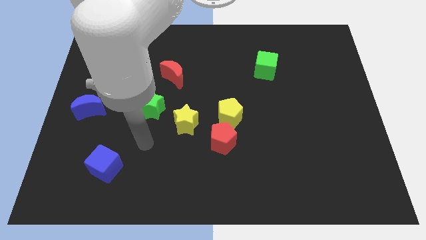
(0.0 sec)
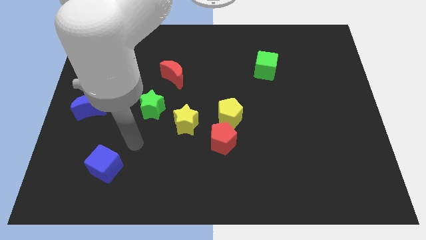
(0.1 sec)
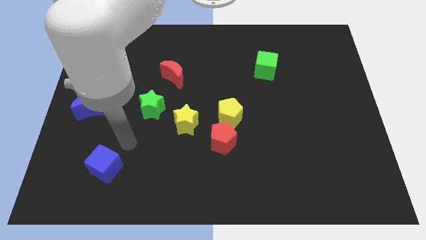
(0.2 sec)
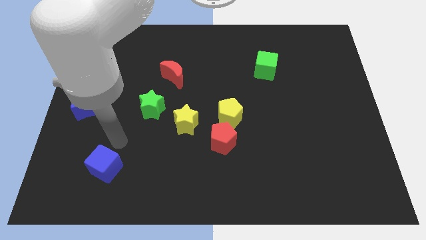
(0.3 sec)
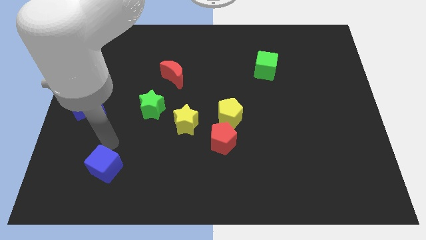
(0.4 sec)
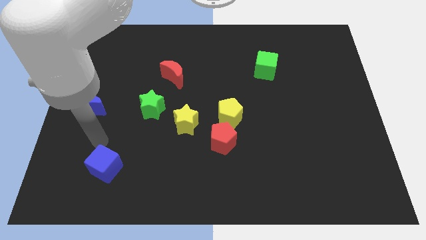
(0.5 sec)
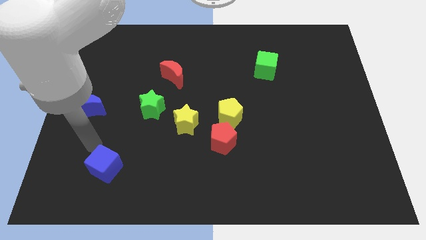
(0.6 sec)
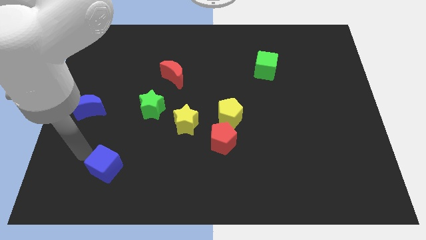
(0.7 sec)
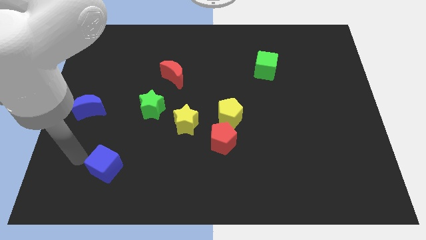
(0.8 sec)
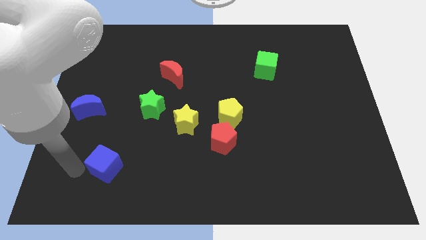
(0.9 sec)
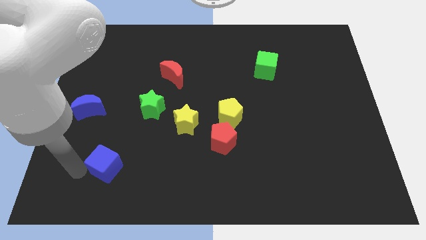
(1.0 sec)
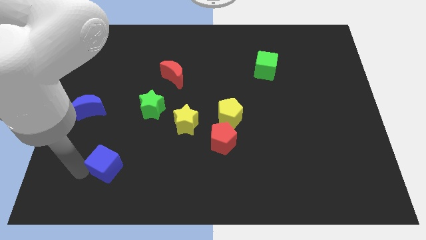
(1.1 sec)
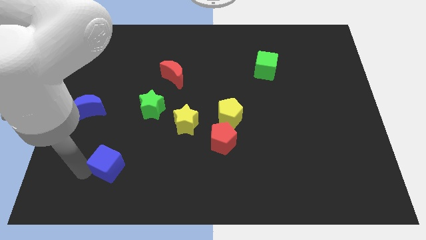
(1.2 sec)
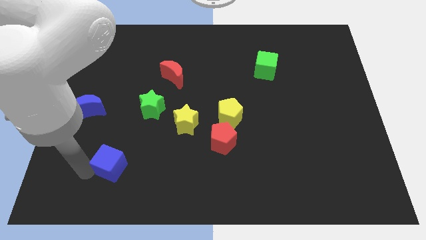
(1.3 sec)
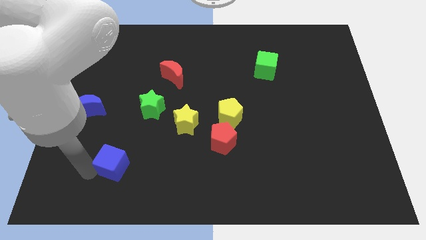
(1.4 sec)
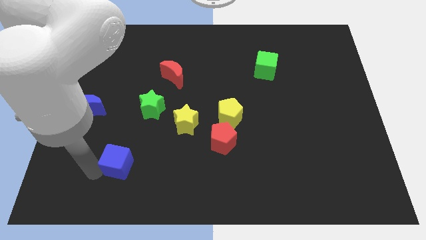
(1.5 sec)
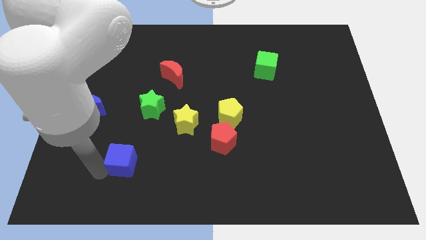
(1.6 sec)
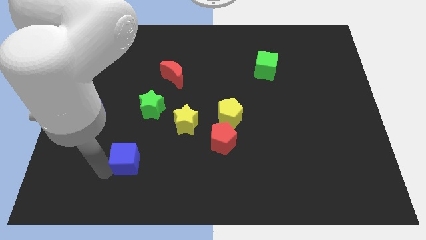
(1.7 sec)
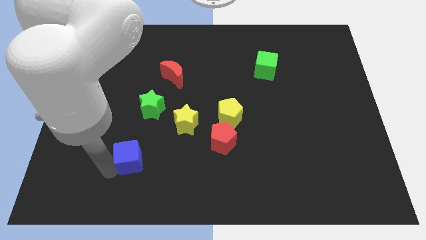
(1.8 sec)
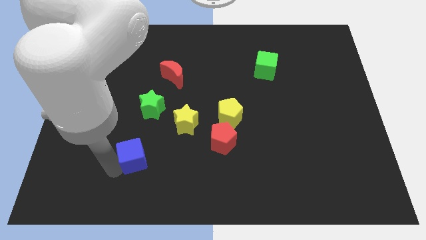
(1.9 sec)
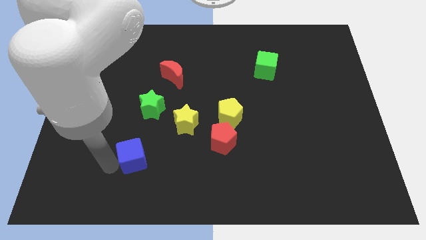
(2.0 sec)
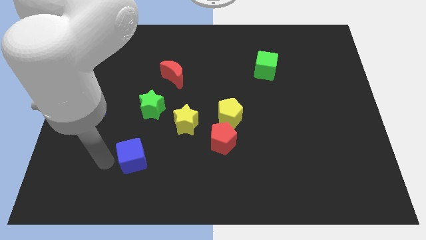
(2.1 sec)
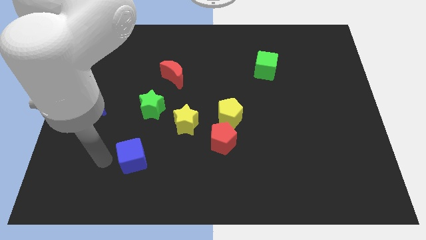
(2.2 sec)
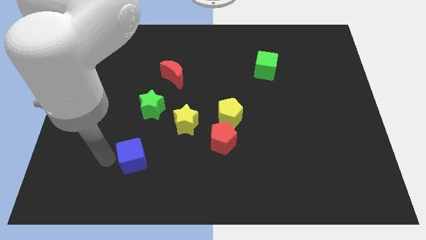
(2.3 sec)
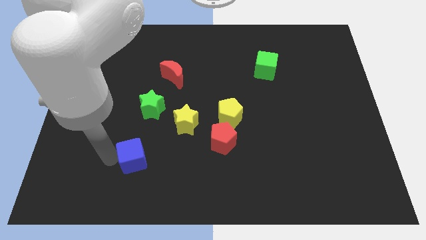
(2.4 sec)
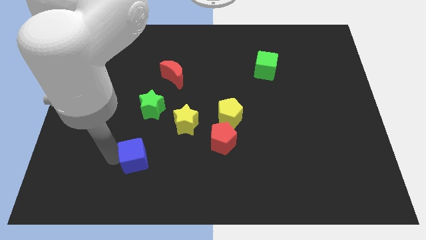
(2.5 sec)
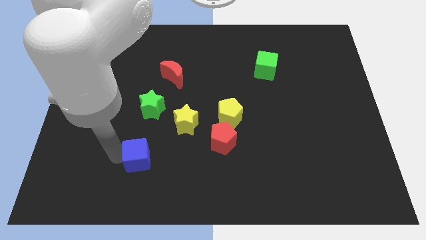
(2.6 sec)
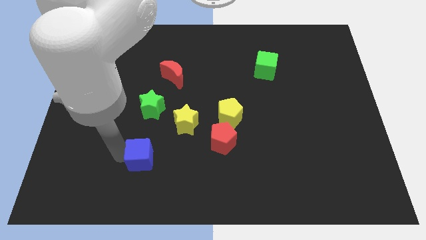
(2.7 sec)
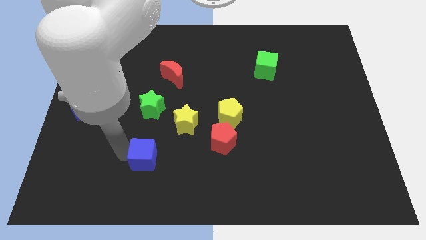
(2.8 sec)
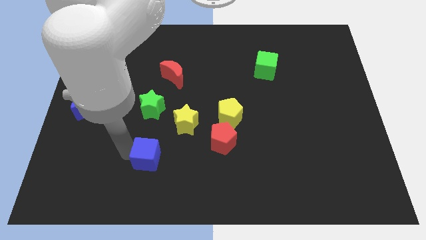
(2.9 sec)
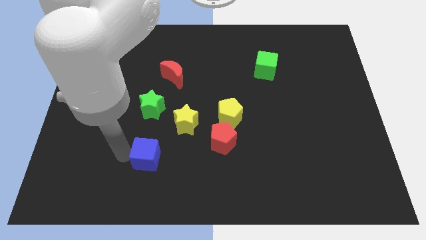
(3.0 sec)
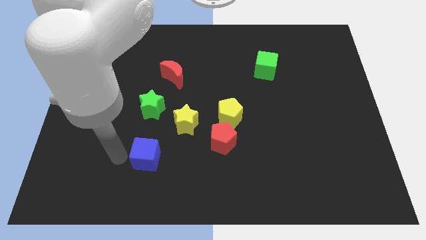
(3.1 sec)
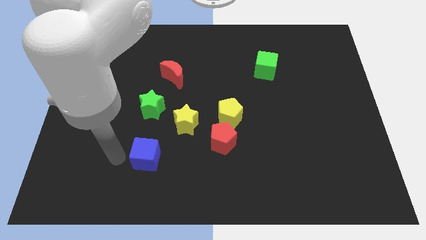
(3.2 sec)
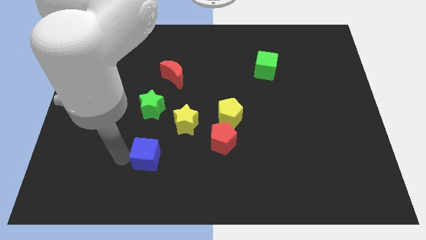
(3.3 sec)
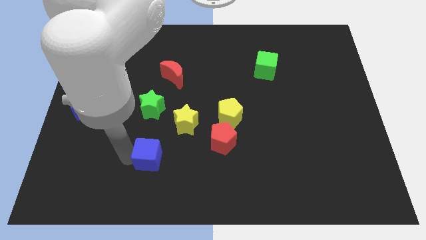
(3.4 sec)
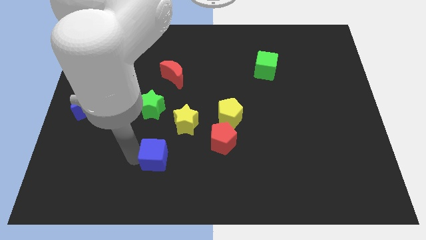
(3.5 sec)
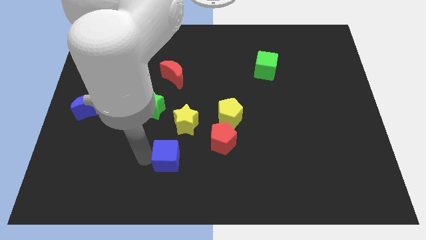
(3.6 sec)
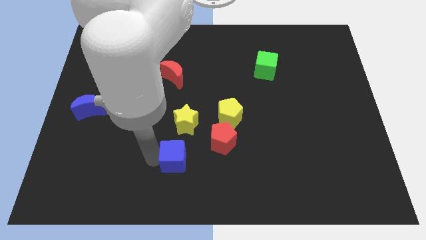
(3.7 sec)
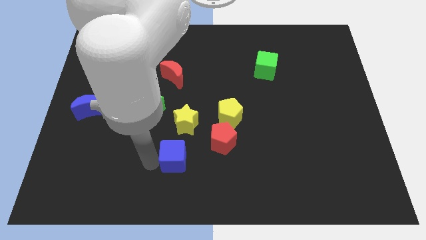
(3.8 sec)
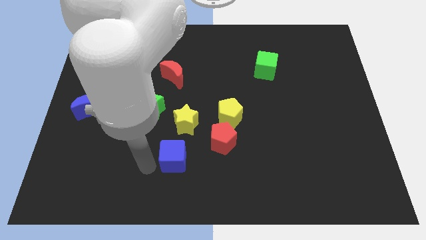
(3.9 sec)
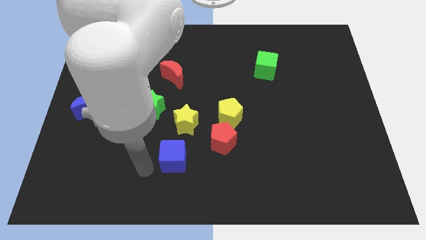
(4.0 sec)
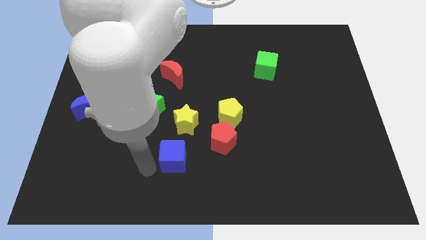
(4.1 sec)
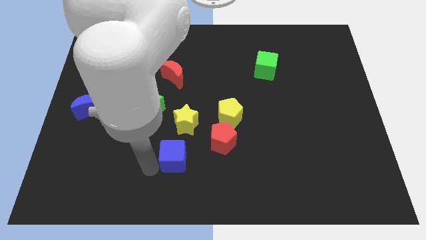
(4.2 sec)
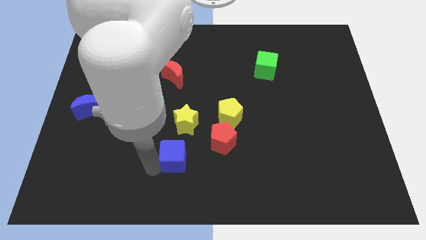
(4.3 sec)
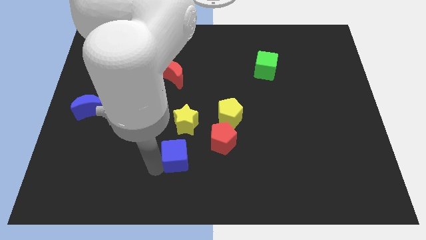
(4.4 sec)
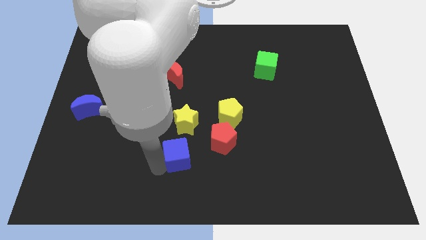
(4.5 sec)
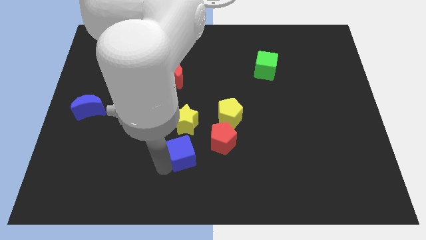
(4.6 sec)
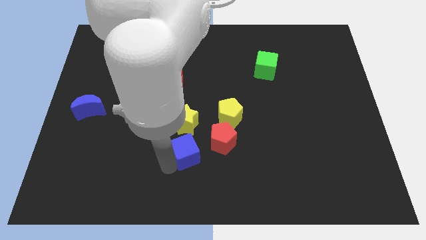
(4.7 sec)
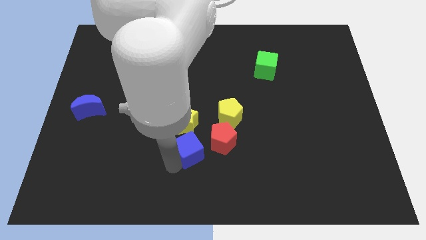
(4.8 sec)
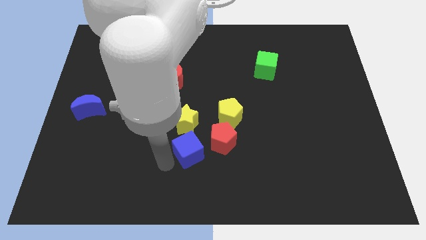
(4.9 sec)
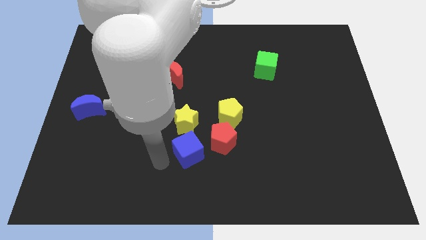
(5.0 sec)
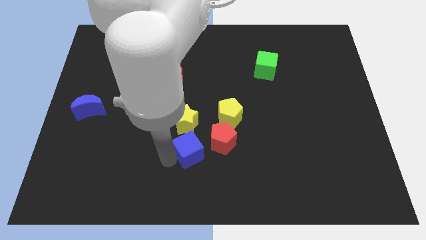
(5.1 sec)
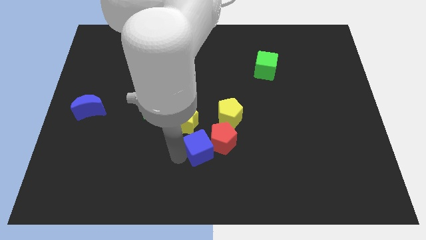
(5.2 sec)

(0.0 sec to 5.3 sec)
push the blue cube next to the red pentagon

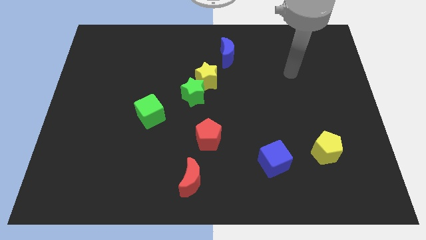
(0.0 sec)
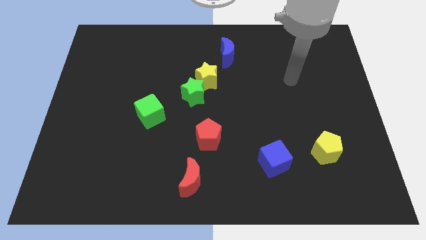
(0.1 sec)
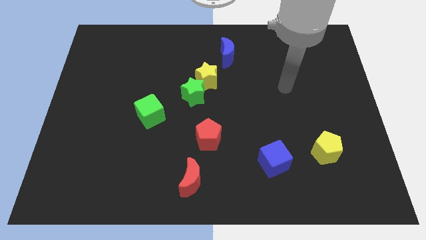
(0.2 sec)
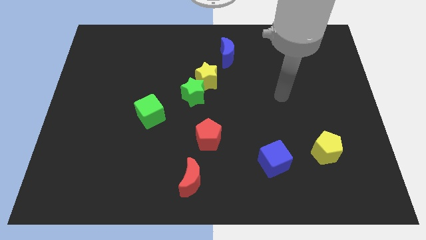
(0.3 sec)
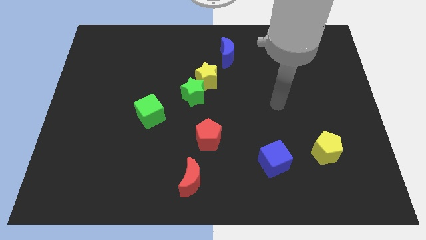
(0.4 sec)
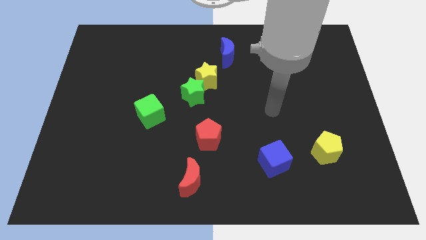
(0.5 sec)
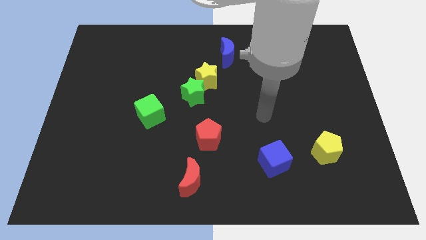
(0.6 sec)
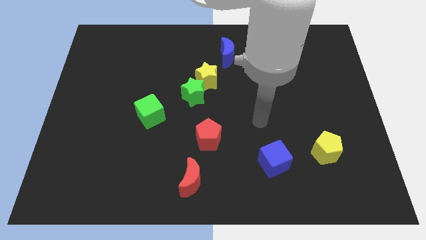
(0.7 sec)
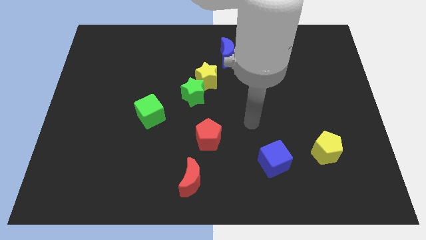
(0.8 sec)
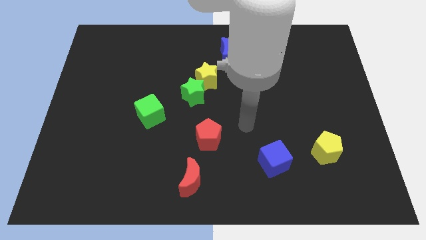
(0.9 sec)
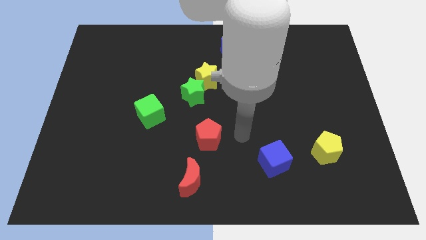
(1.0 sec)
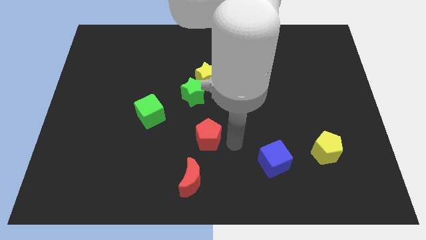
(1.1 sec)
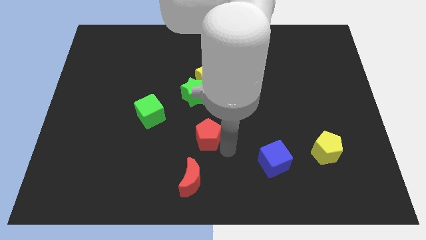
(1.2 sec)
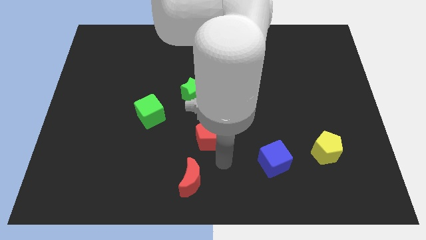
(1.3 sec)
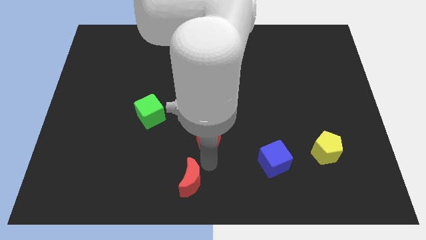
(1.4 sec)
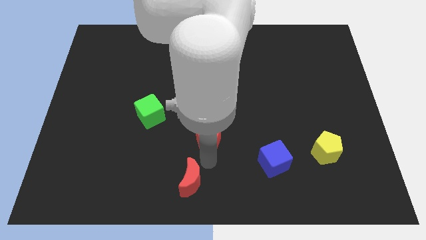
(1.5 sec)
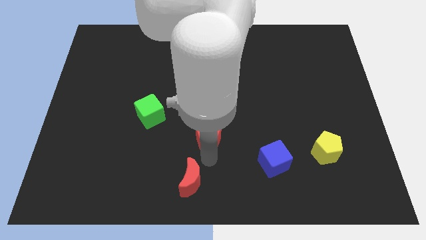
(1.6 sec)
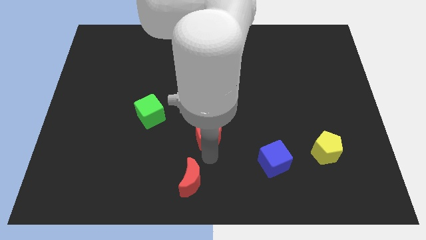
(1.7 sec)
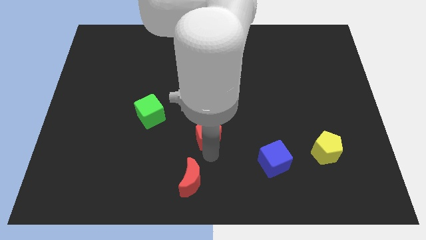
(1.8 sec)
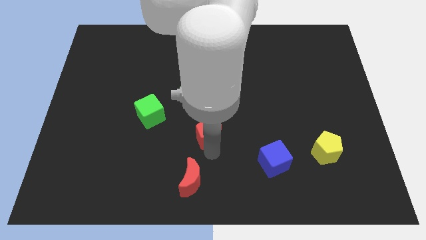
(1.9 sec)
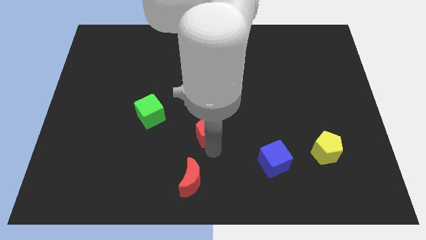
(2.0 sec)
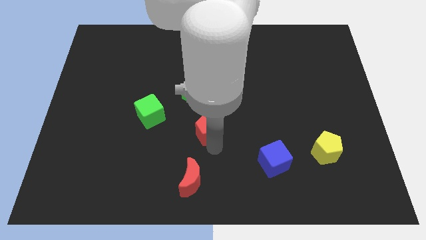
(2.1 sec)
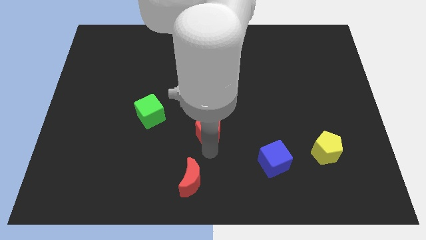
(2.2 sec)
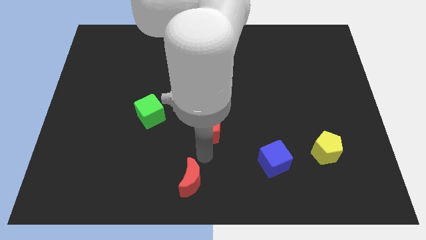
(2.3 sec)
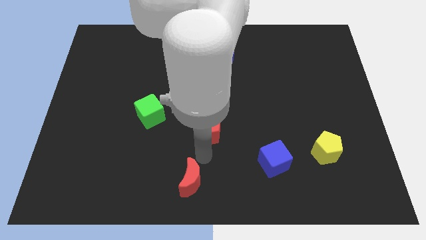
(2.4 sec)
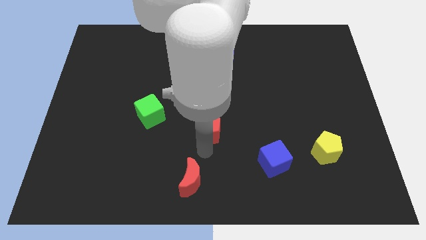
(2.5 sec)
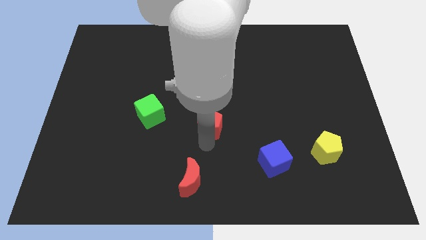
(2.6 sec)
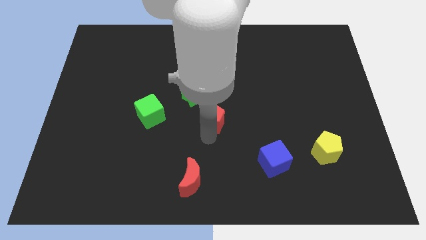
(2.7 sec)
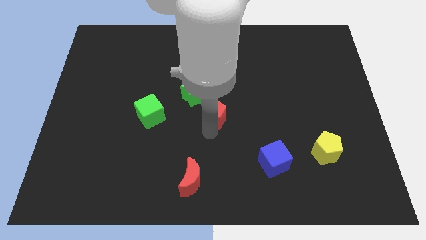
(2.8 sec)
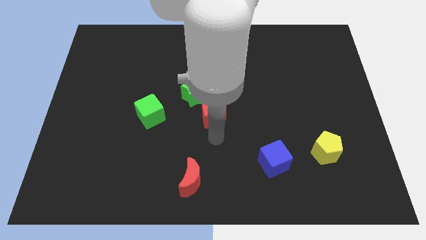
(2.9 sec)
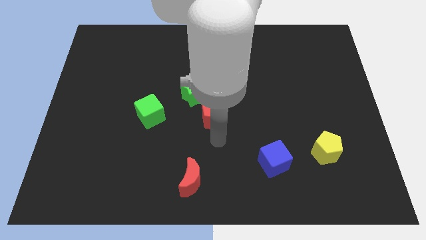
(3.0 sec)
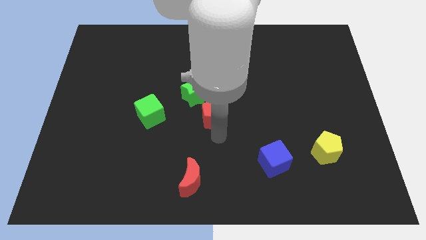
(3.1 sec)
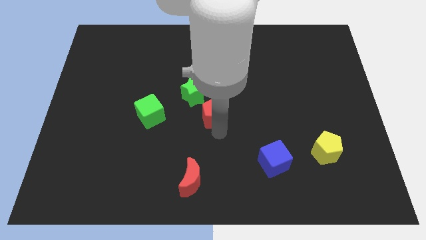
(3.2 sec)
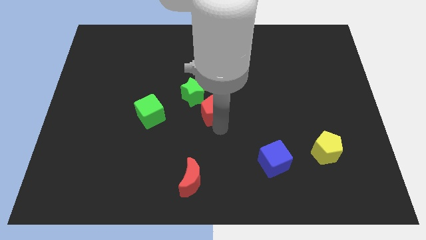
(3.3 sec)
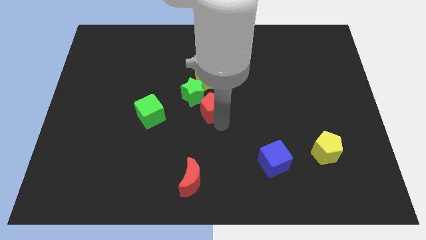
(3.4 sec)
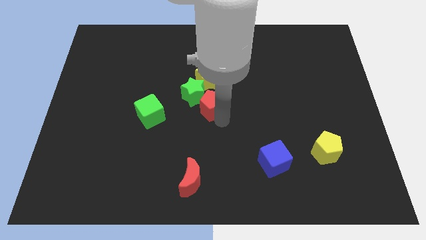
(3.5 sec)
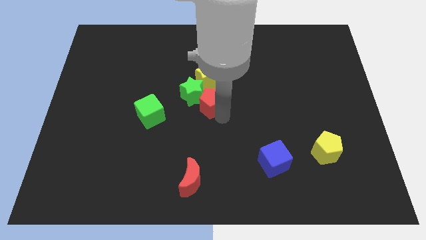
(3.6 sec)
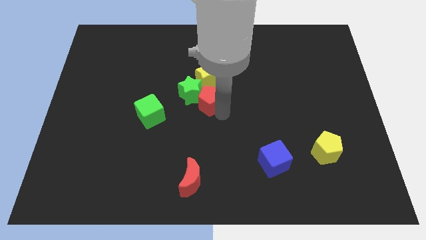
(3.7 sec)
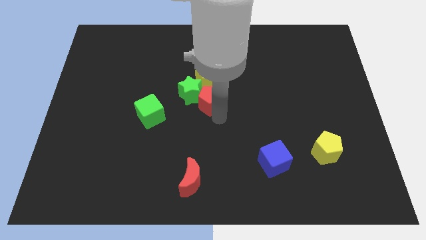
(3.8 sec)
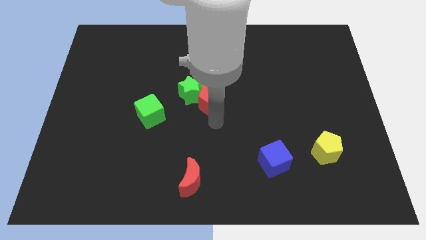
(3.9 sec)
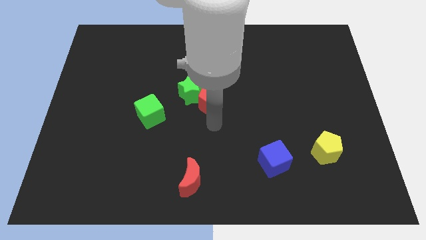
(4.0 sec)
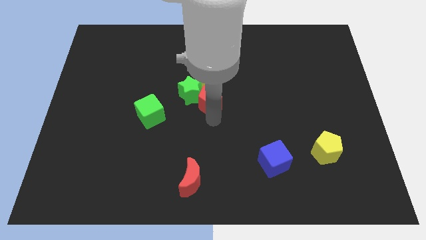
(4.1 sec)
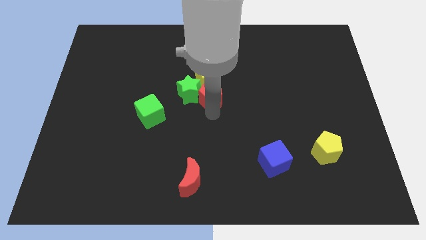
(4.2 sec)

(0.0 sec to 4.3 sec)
move the red pentagon close to the yellow star
